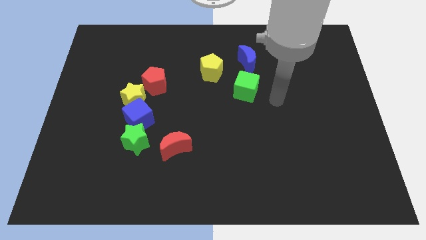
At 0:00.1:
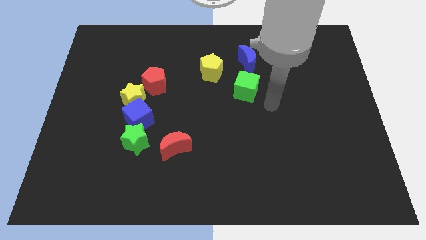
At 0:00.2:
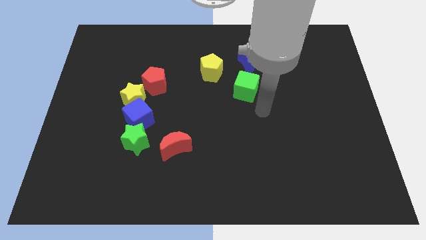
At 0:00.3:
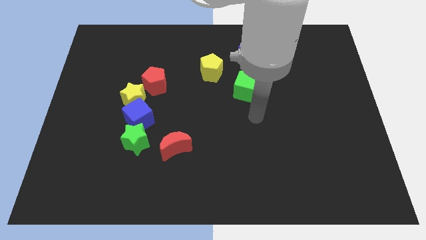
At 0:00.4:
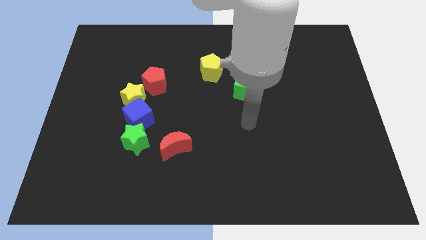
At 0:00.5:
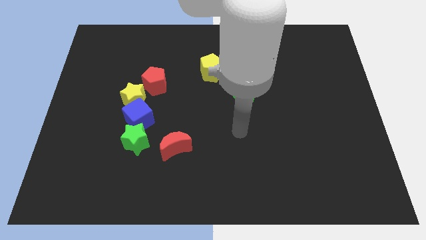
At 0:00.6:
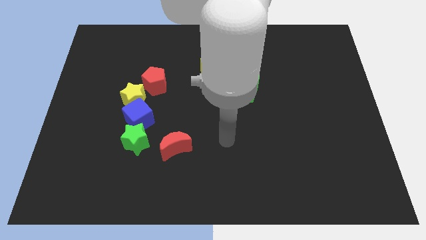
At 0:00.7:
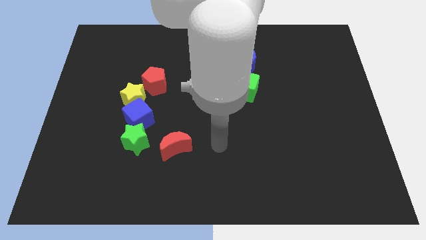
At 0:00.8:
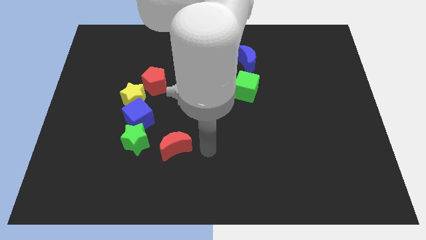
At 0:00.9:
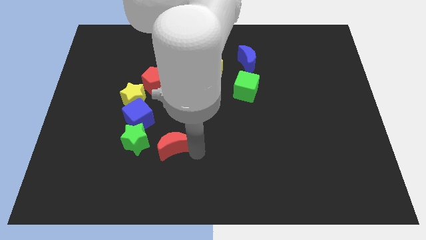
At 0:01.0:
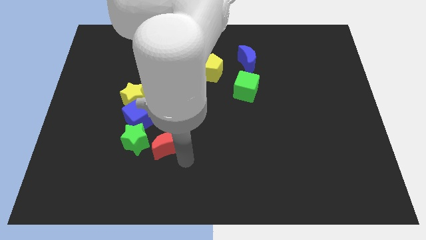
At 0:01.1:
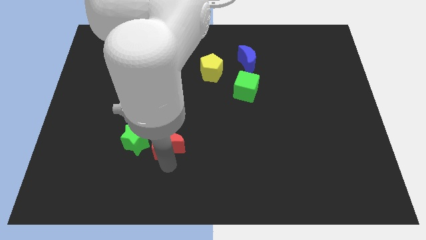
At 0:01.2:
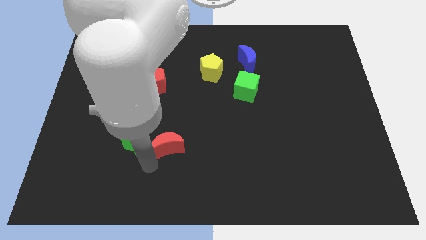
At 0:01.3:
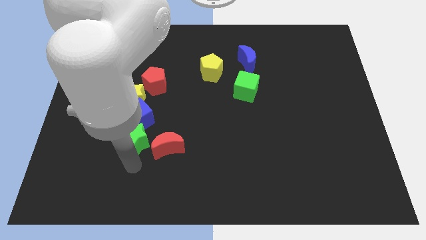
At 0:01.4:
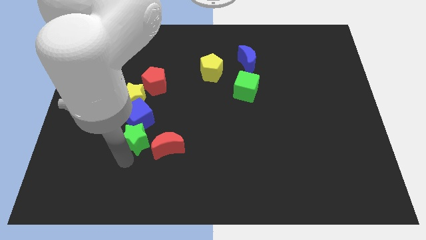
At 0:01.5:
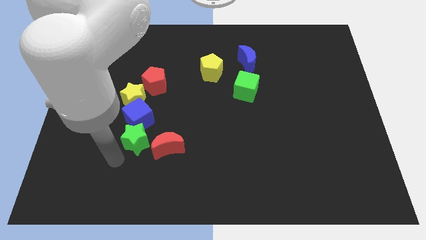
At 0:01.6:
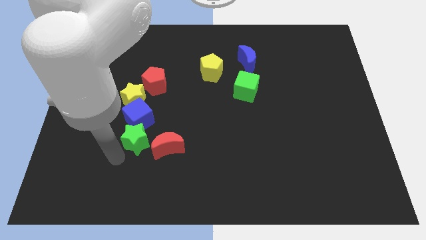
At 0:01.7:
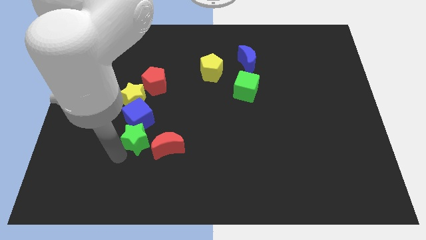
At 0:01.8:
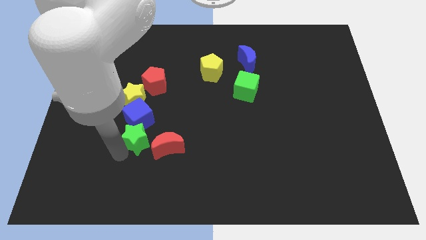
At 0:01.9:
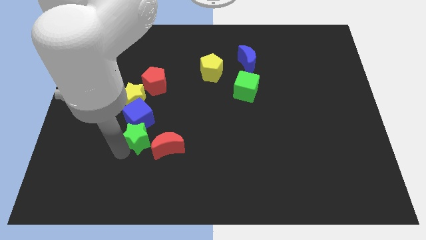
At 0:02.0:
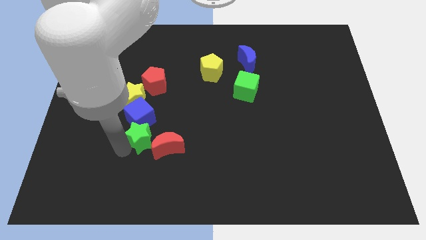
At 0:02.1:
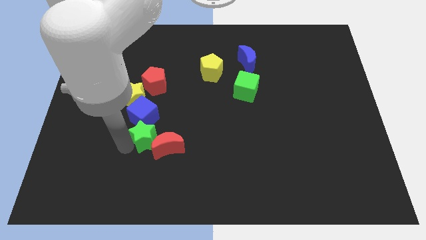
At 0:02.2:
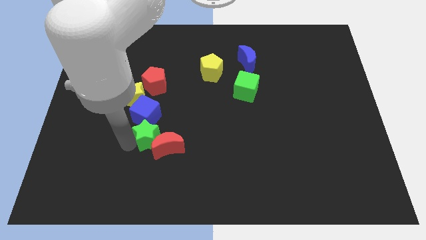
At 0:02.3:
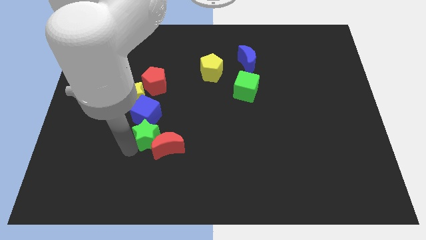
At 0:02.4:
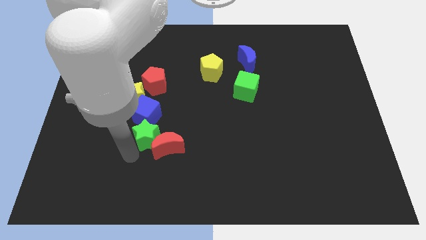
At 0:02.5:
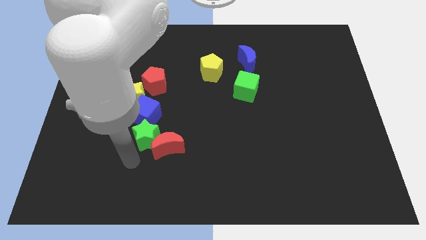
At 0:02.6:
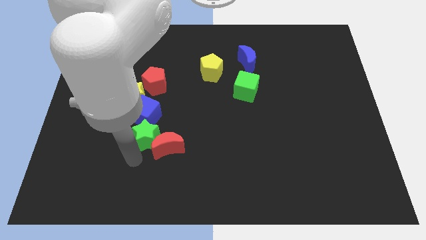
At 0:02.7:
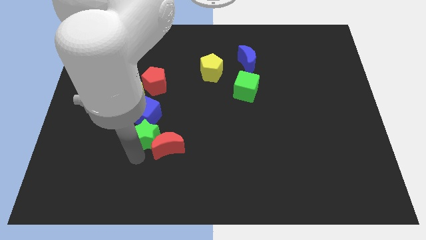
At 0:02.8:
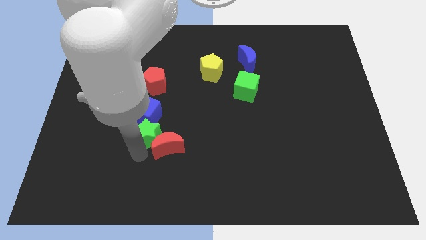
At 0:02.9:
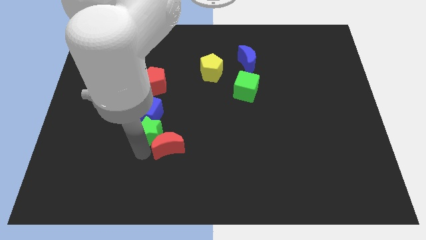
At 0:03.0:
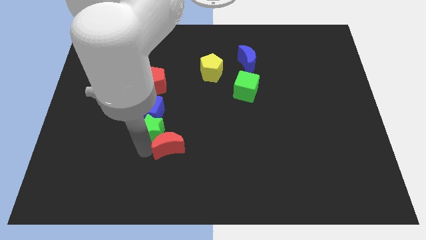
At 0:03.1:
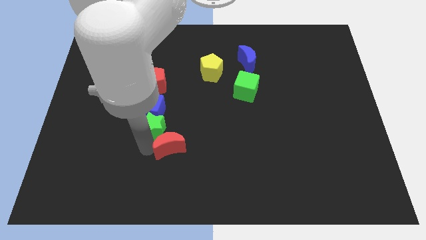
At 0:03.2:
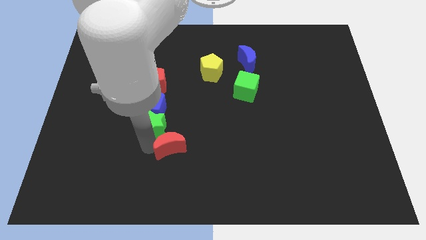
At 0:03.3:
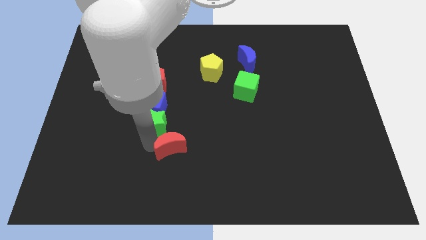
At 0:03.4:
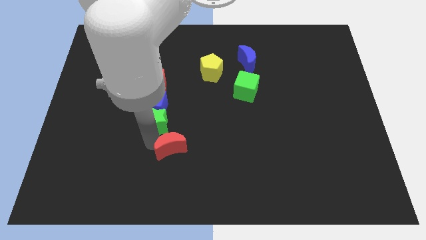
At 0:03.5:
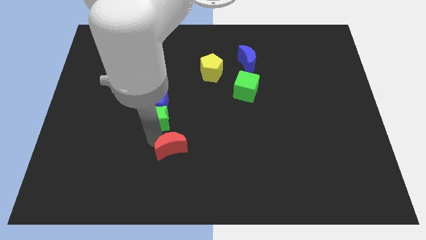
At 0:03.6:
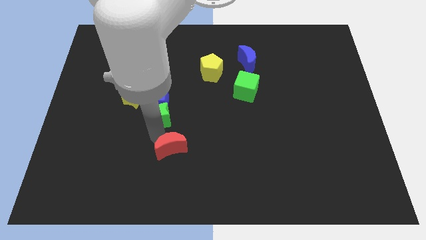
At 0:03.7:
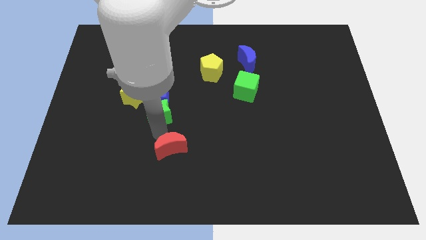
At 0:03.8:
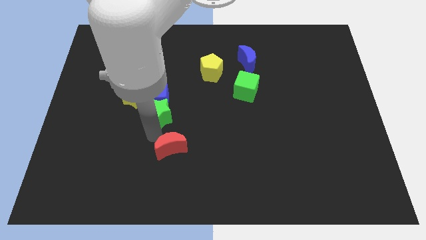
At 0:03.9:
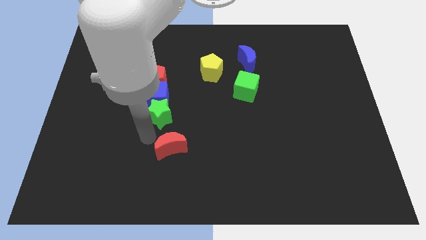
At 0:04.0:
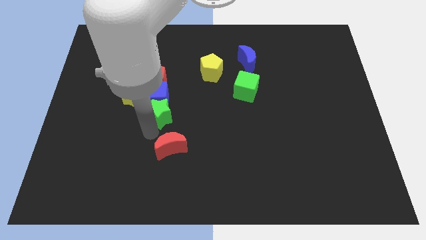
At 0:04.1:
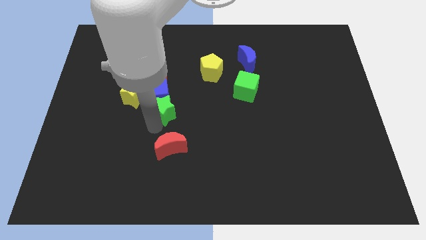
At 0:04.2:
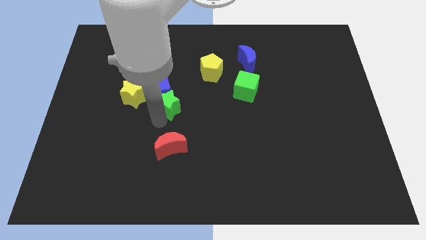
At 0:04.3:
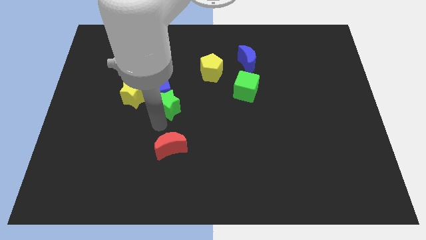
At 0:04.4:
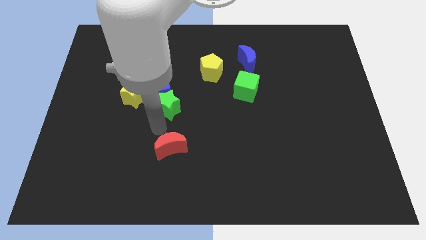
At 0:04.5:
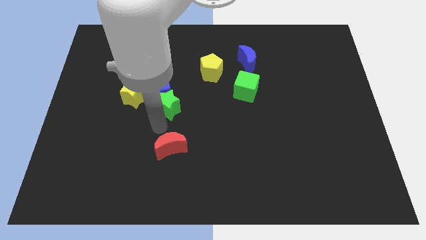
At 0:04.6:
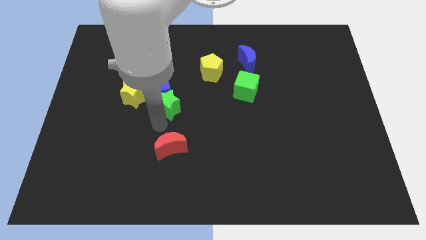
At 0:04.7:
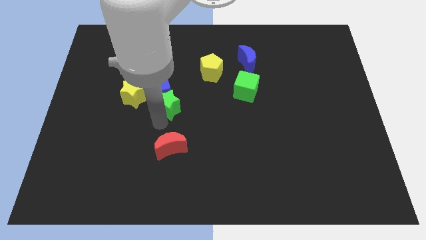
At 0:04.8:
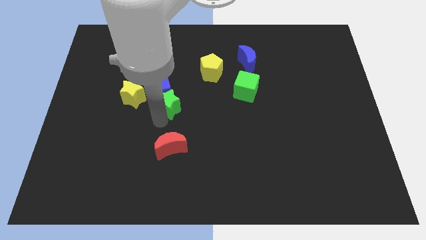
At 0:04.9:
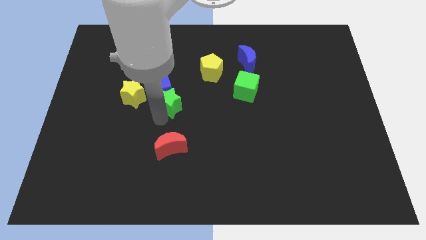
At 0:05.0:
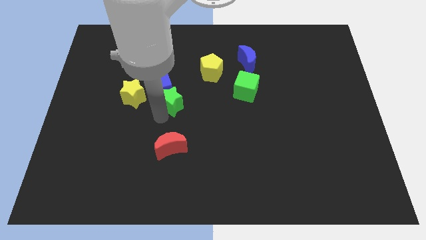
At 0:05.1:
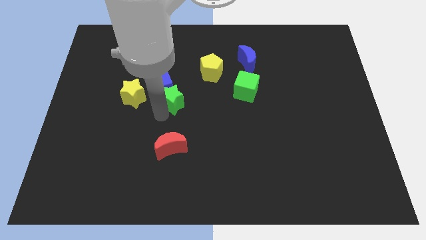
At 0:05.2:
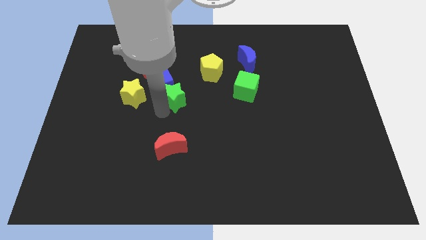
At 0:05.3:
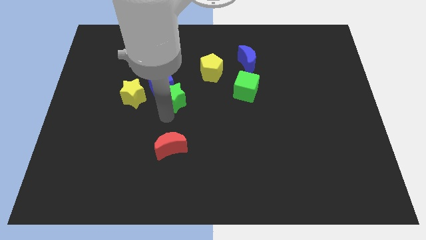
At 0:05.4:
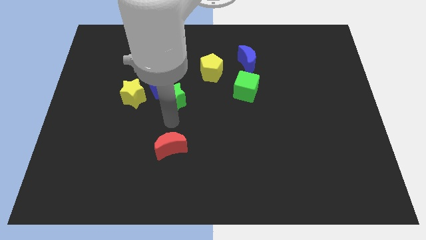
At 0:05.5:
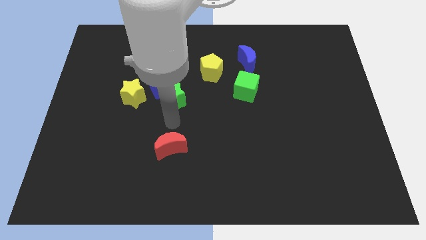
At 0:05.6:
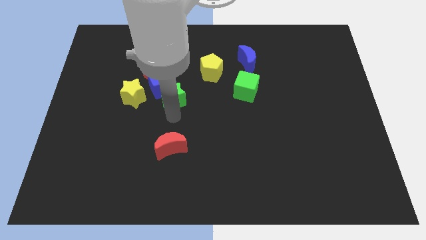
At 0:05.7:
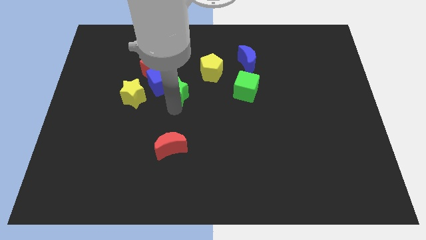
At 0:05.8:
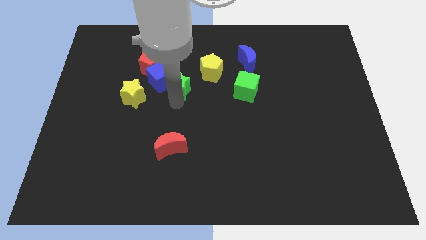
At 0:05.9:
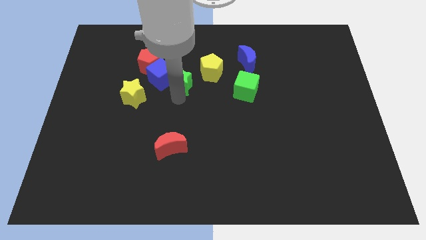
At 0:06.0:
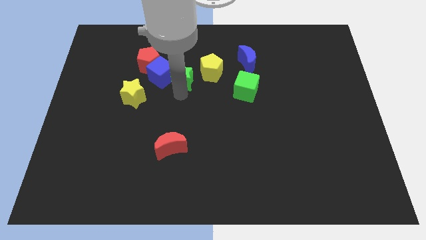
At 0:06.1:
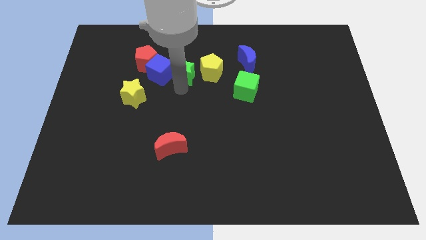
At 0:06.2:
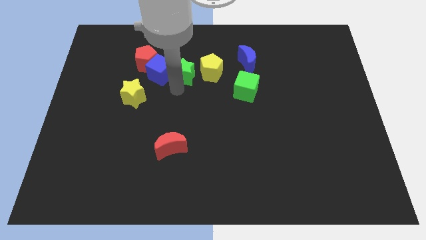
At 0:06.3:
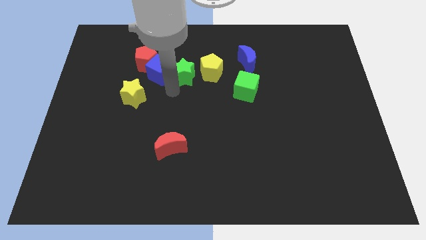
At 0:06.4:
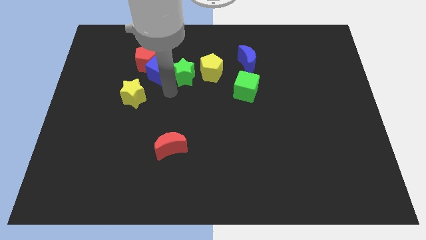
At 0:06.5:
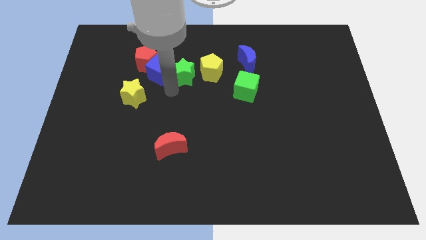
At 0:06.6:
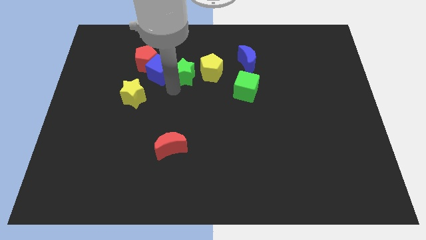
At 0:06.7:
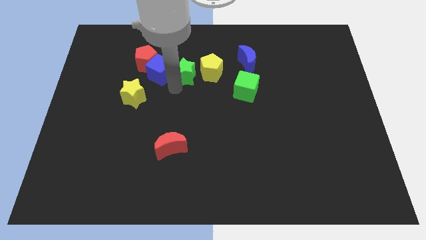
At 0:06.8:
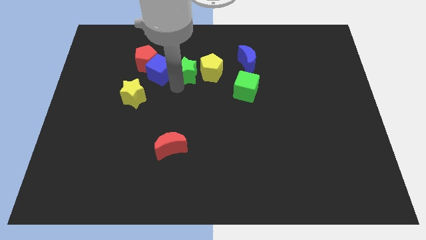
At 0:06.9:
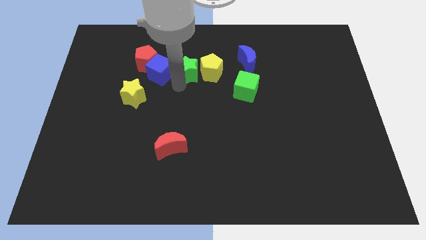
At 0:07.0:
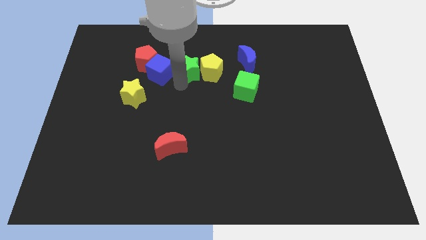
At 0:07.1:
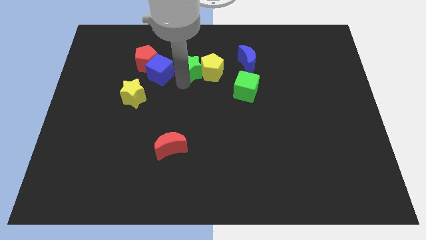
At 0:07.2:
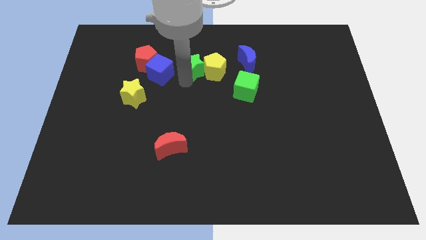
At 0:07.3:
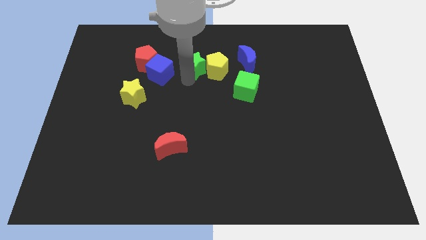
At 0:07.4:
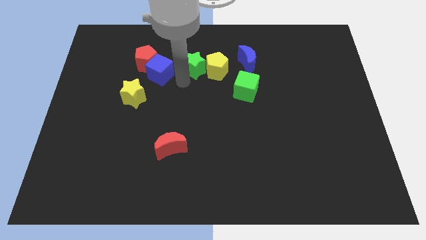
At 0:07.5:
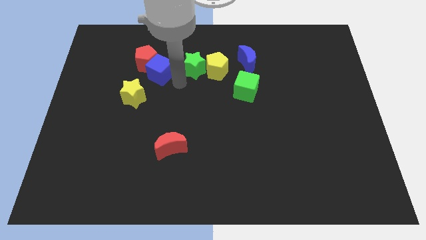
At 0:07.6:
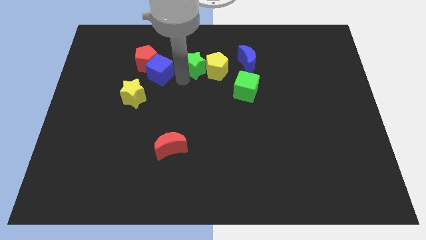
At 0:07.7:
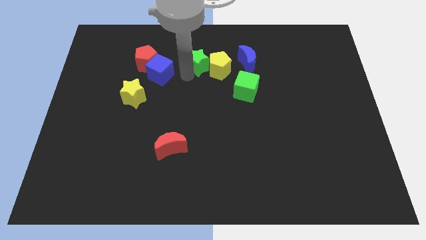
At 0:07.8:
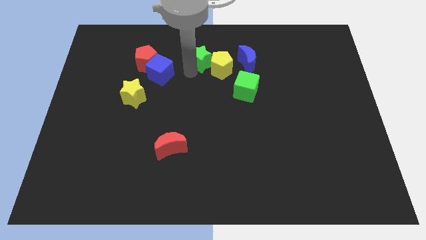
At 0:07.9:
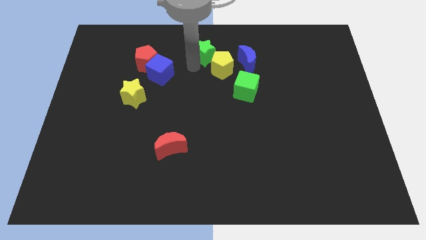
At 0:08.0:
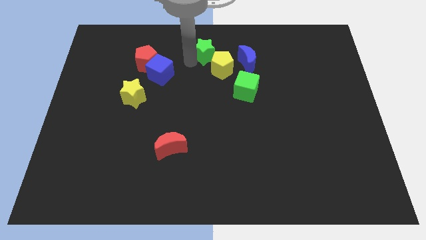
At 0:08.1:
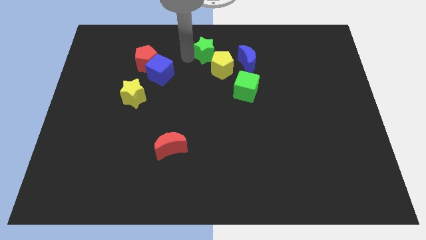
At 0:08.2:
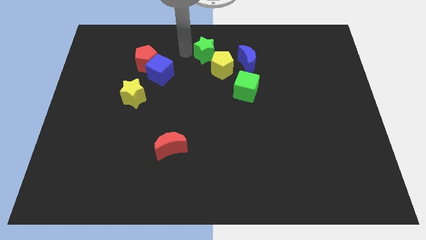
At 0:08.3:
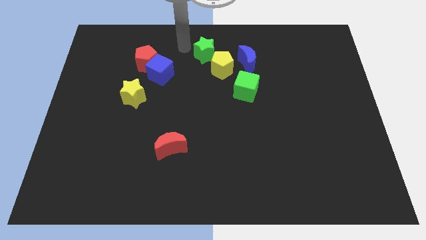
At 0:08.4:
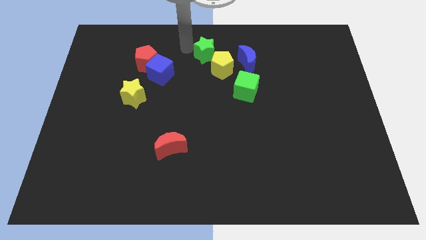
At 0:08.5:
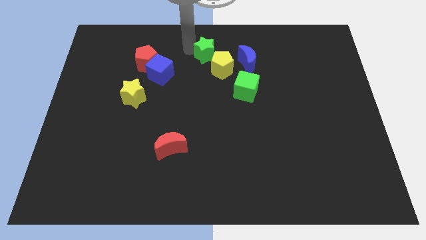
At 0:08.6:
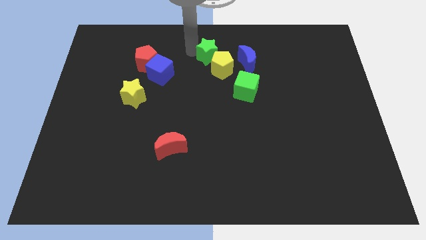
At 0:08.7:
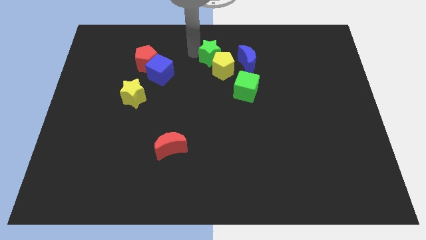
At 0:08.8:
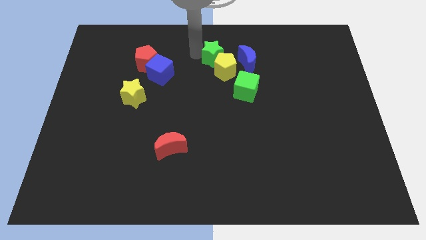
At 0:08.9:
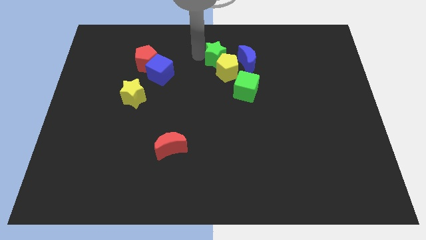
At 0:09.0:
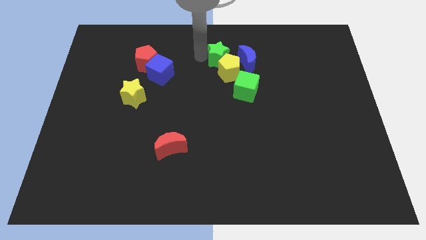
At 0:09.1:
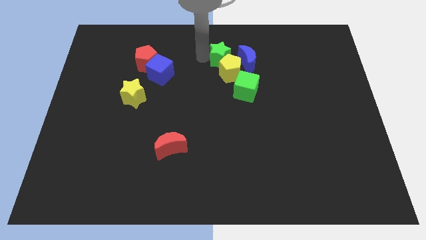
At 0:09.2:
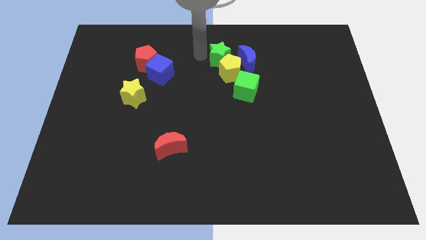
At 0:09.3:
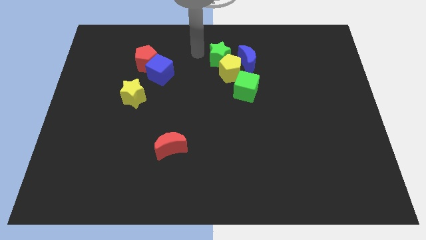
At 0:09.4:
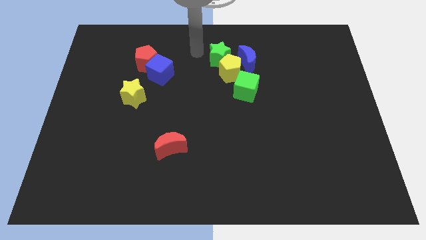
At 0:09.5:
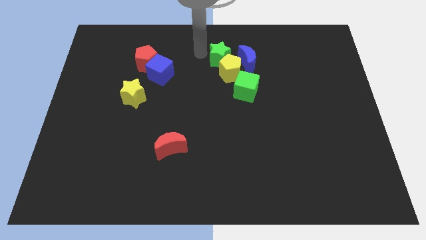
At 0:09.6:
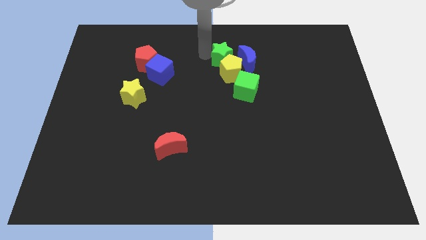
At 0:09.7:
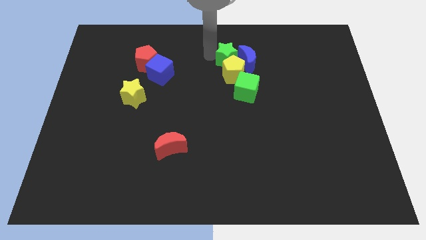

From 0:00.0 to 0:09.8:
move the green star next to the blue moon
